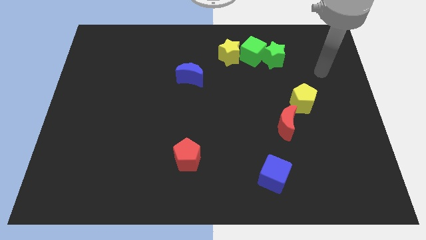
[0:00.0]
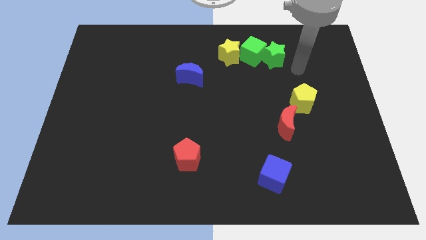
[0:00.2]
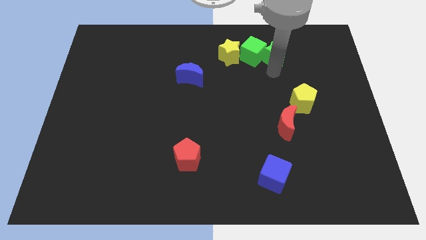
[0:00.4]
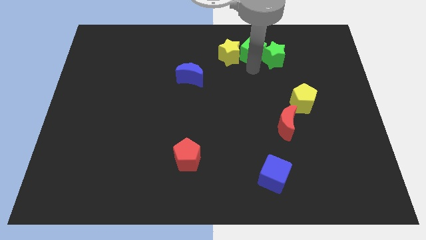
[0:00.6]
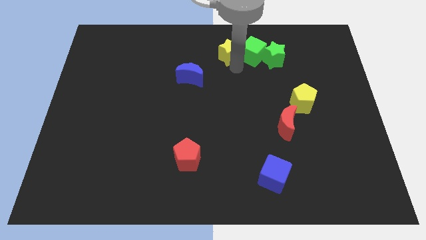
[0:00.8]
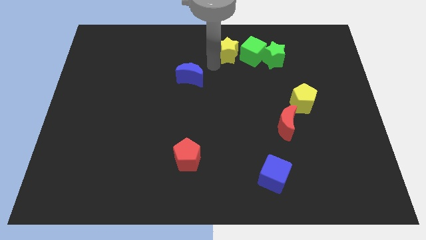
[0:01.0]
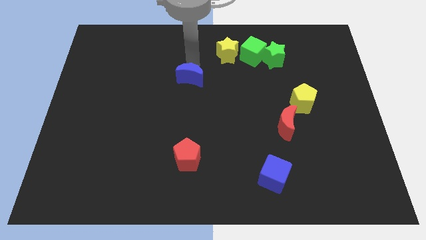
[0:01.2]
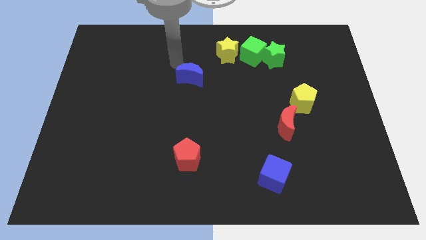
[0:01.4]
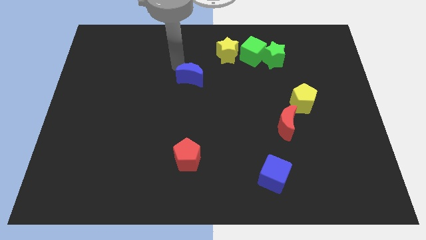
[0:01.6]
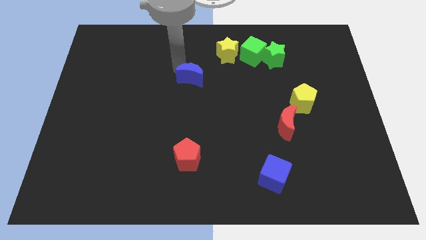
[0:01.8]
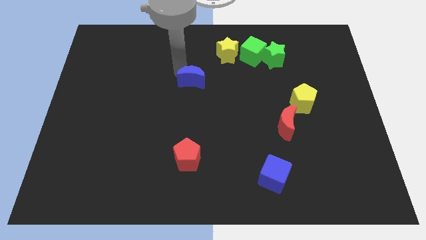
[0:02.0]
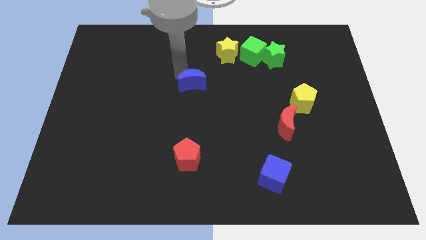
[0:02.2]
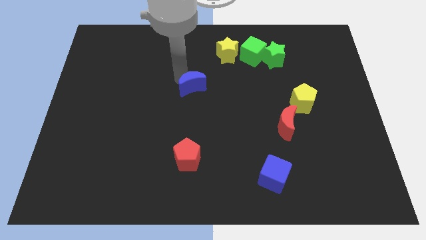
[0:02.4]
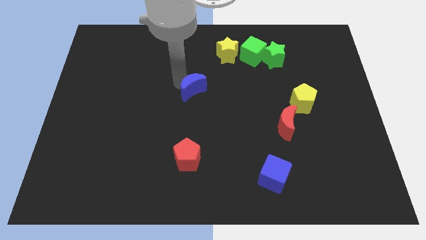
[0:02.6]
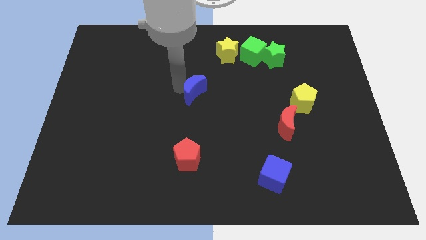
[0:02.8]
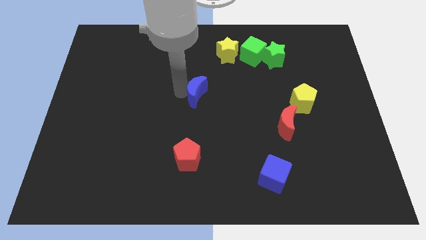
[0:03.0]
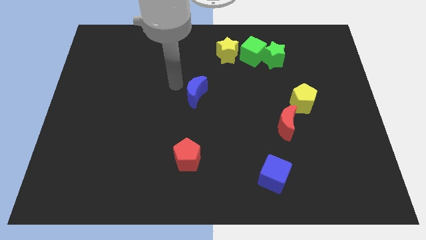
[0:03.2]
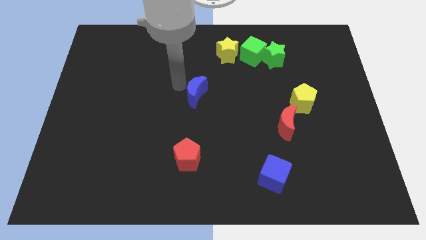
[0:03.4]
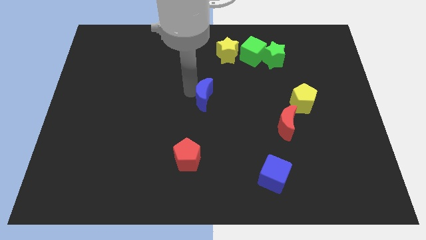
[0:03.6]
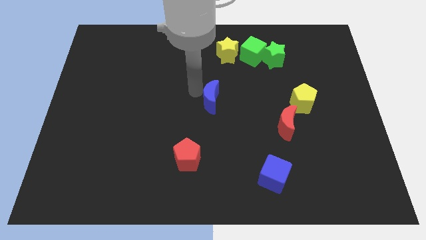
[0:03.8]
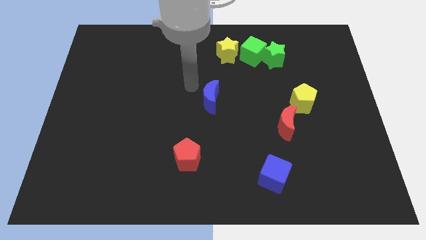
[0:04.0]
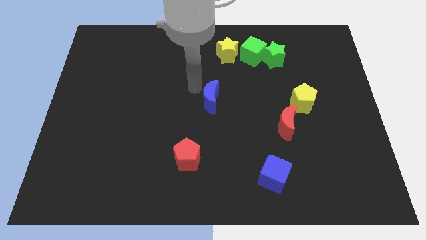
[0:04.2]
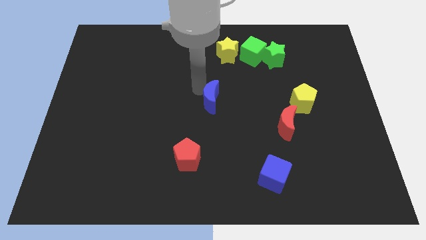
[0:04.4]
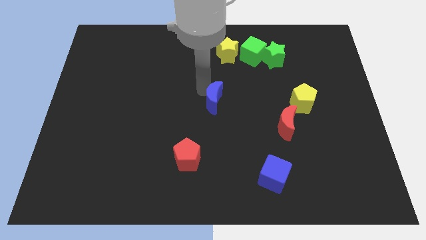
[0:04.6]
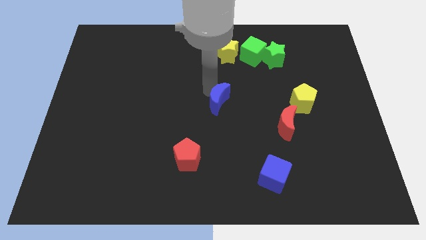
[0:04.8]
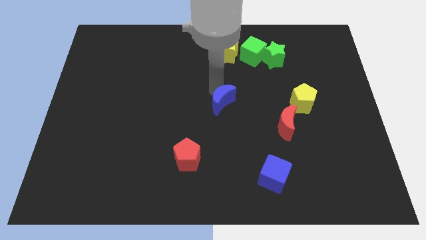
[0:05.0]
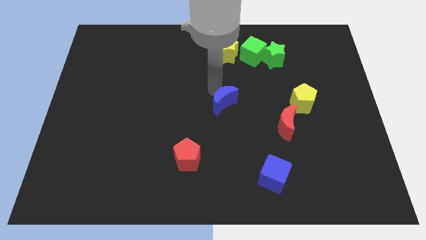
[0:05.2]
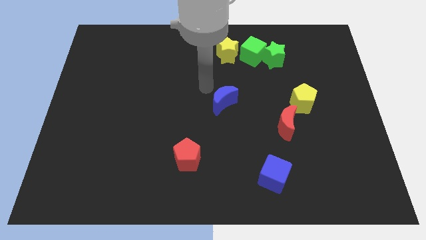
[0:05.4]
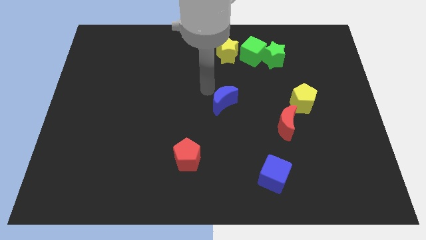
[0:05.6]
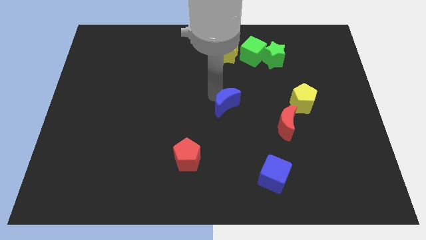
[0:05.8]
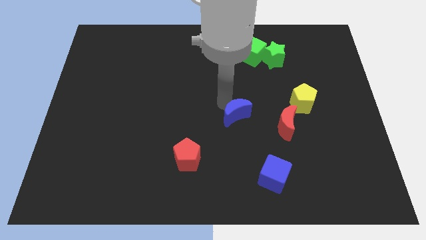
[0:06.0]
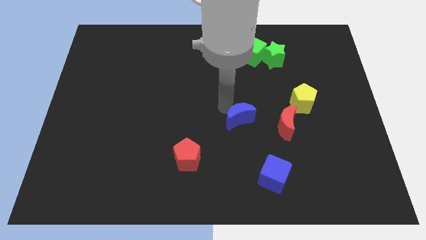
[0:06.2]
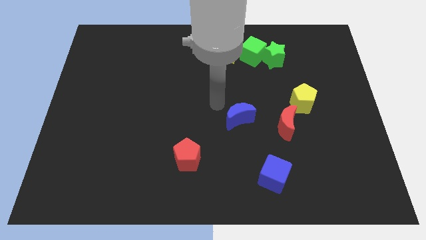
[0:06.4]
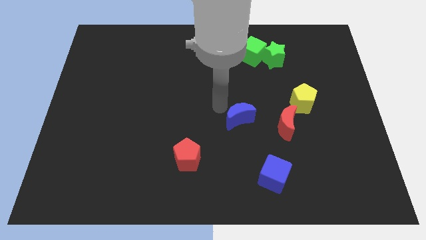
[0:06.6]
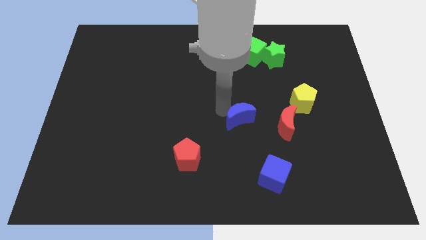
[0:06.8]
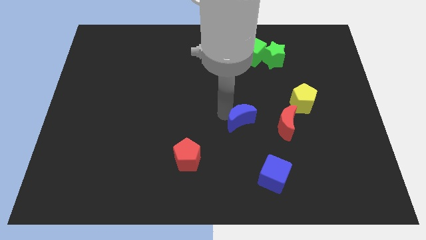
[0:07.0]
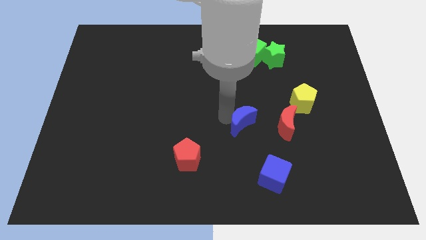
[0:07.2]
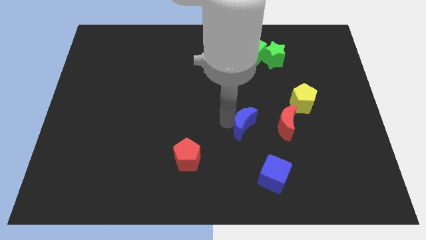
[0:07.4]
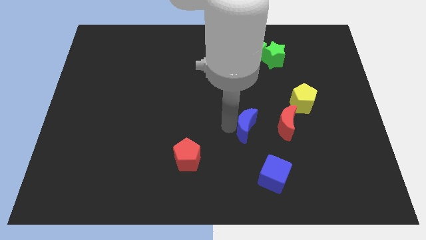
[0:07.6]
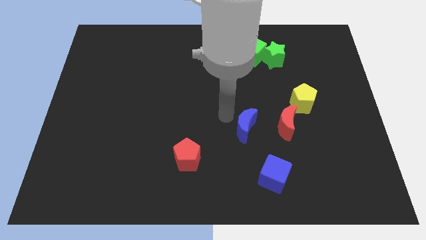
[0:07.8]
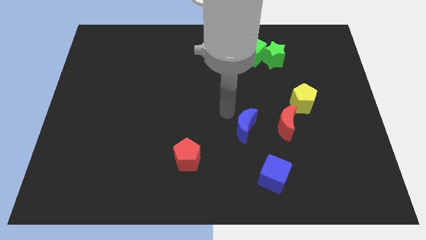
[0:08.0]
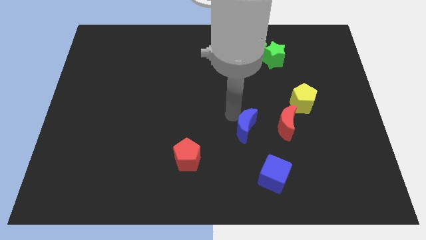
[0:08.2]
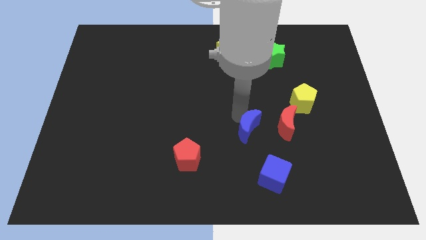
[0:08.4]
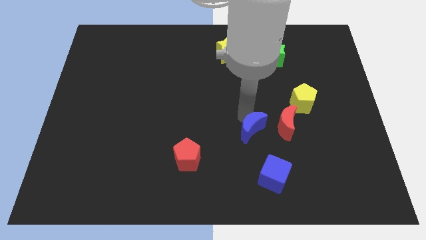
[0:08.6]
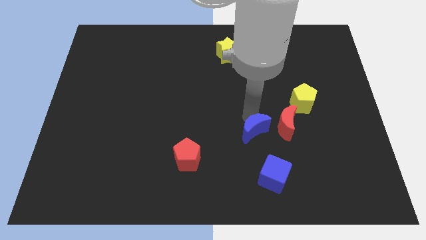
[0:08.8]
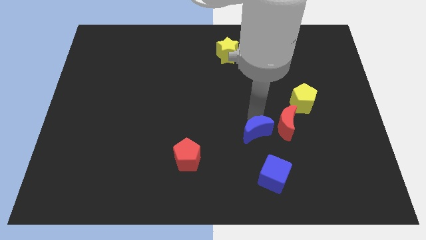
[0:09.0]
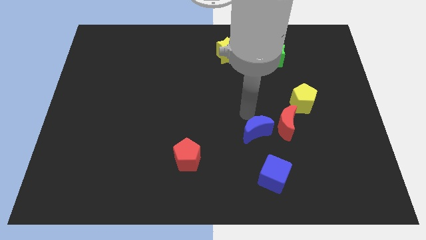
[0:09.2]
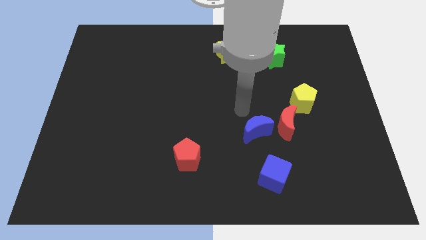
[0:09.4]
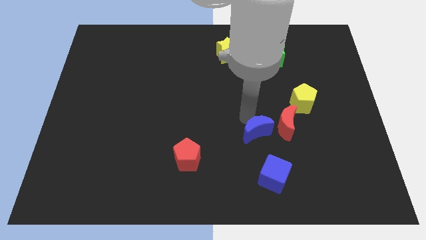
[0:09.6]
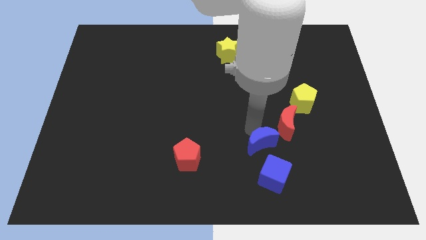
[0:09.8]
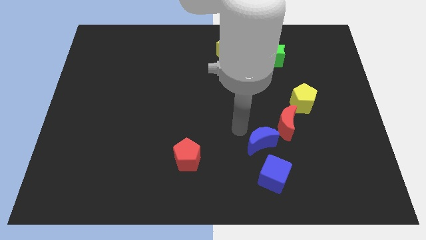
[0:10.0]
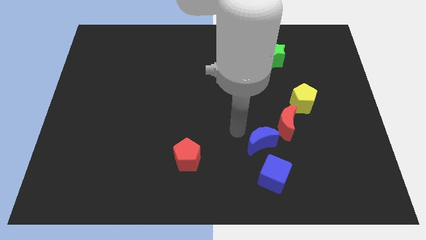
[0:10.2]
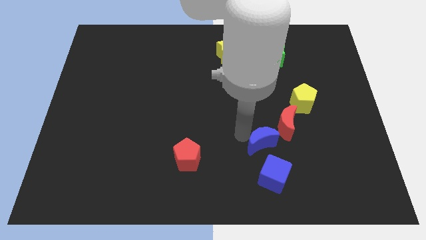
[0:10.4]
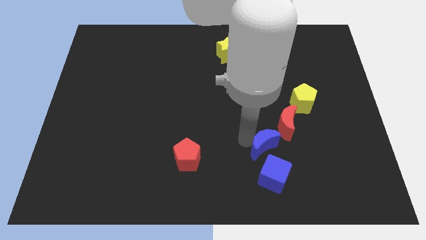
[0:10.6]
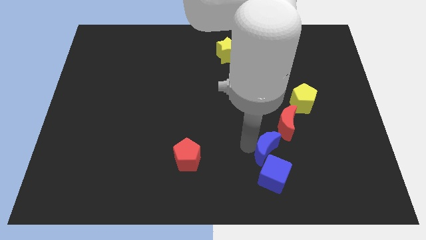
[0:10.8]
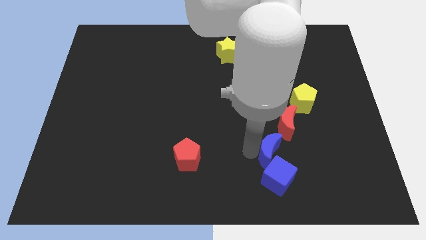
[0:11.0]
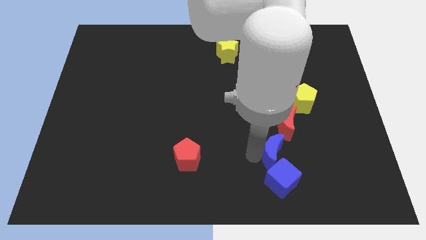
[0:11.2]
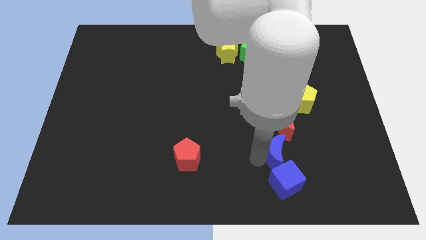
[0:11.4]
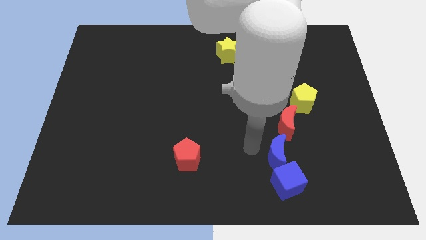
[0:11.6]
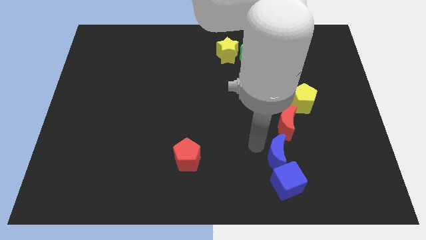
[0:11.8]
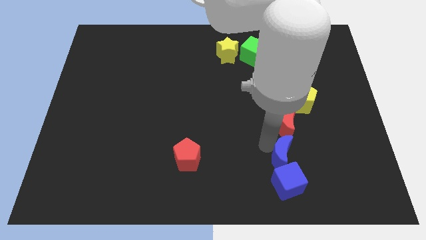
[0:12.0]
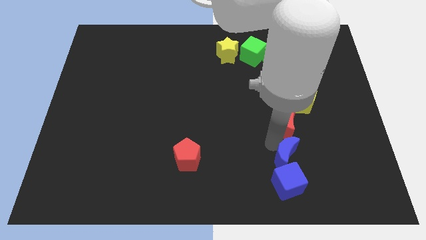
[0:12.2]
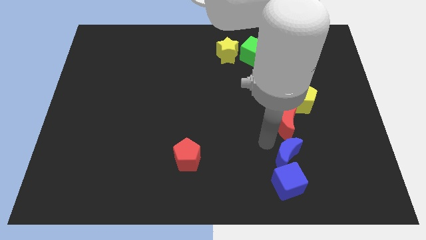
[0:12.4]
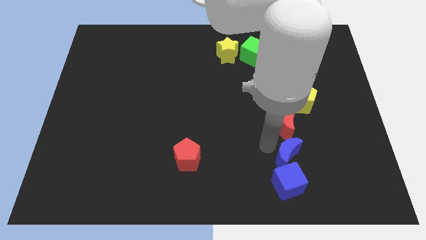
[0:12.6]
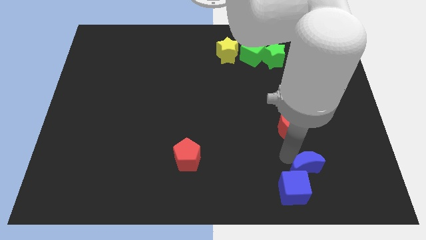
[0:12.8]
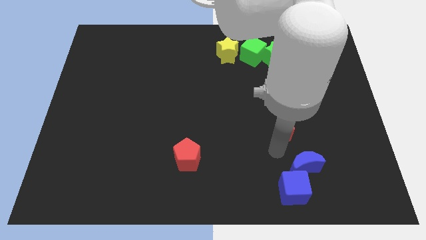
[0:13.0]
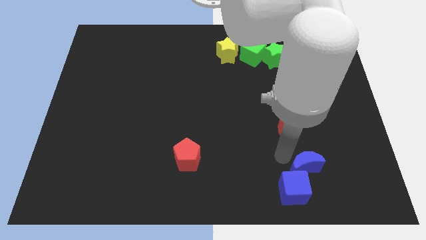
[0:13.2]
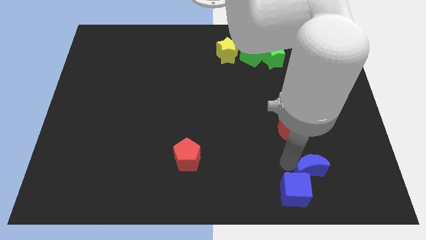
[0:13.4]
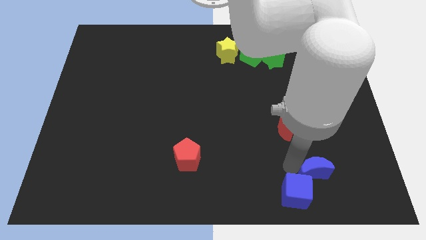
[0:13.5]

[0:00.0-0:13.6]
move the blue moon to the right of the blue cube

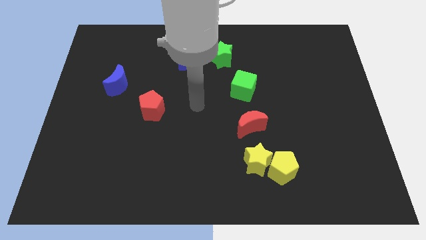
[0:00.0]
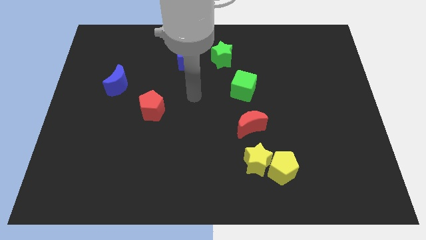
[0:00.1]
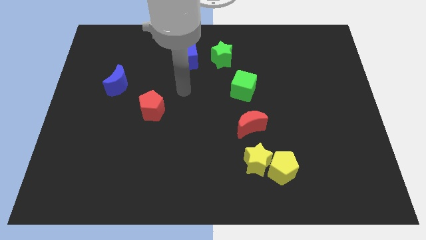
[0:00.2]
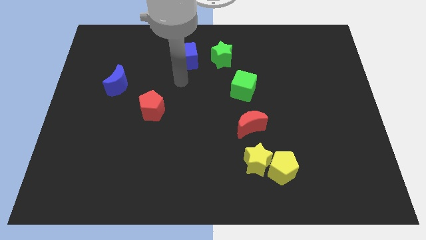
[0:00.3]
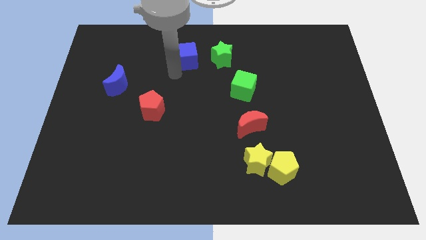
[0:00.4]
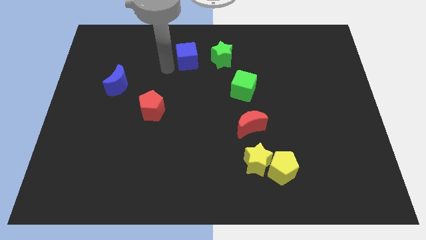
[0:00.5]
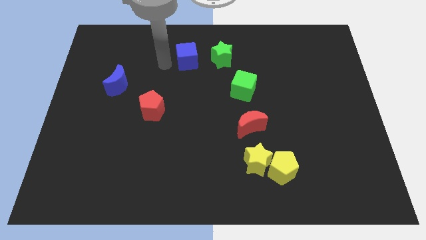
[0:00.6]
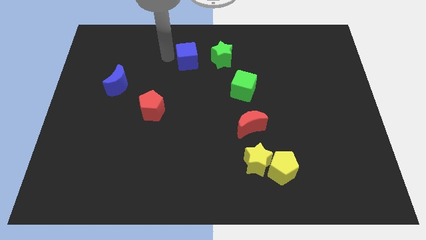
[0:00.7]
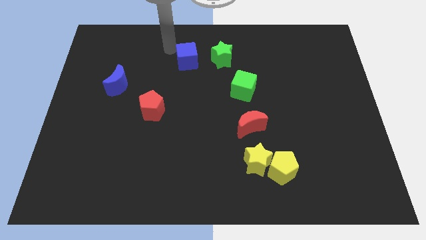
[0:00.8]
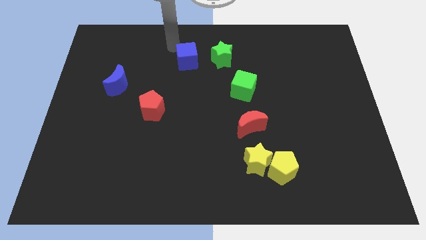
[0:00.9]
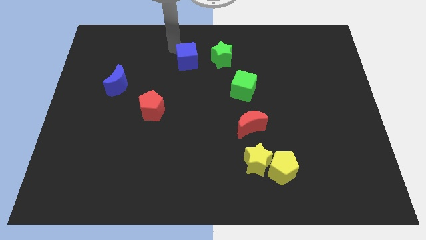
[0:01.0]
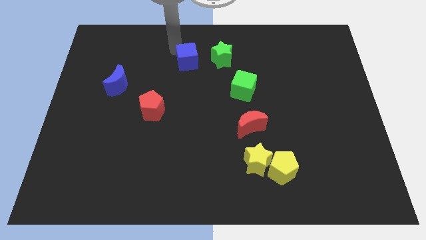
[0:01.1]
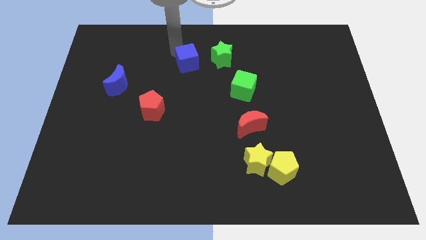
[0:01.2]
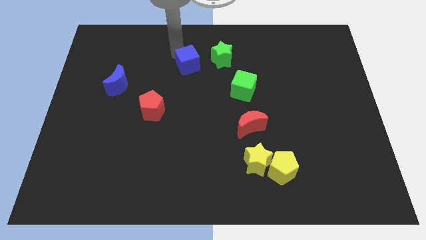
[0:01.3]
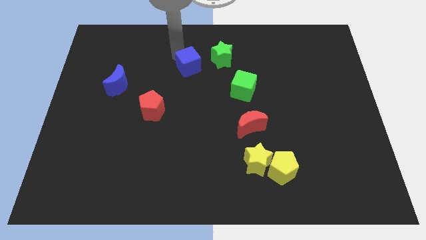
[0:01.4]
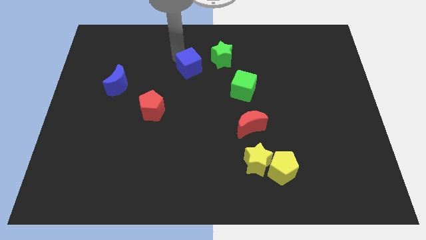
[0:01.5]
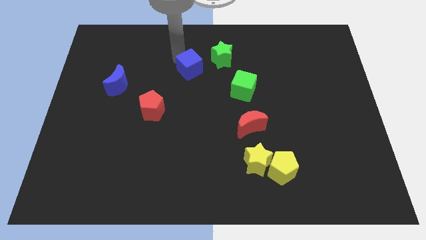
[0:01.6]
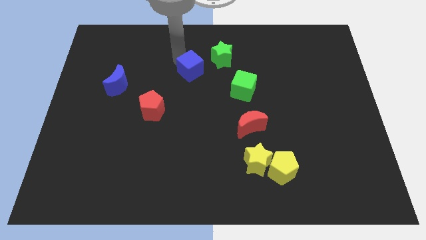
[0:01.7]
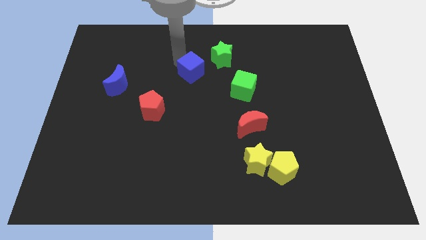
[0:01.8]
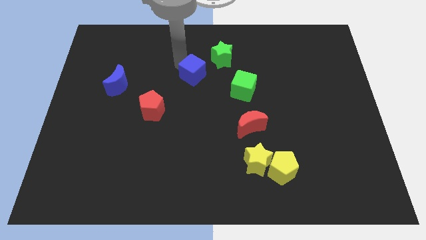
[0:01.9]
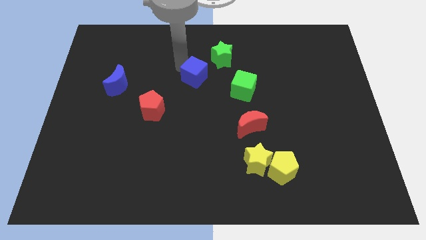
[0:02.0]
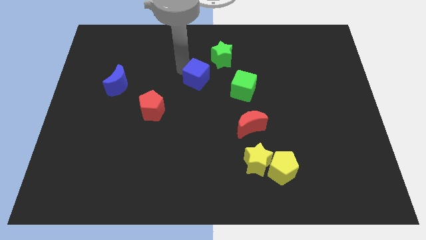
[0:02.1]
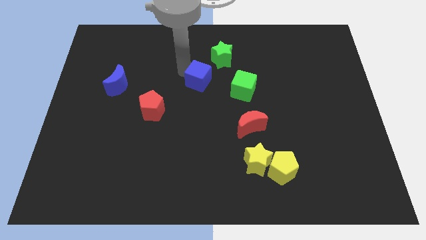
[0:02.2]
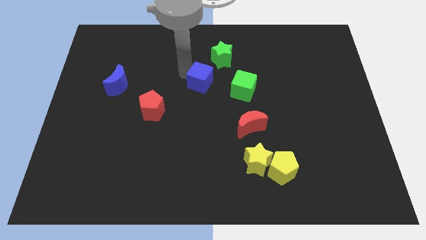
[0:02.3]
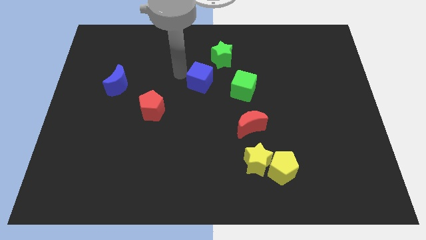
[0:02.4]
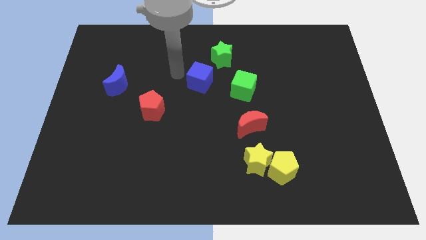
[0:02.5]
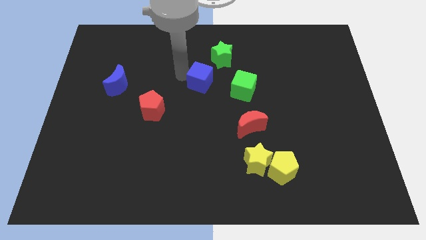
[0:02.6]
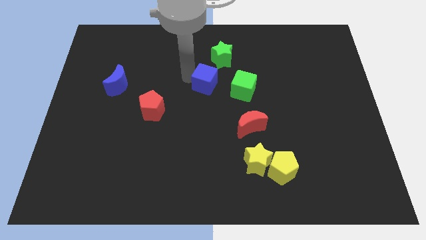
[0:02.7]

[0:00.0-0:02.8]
move the blue cube to the bottom side of the green star
